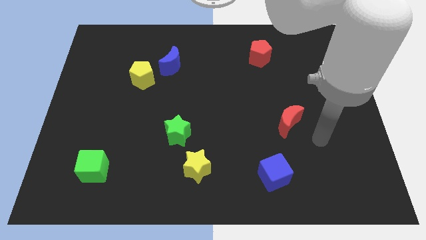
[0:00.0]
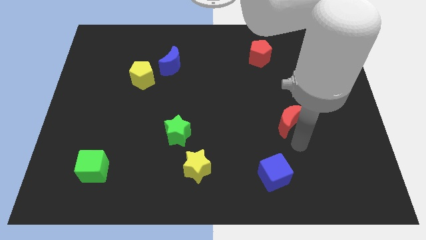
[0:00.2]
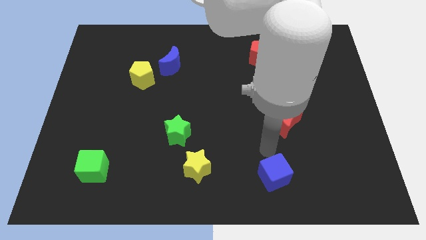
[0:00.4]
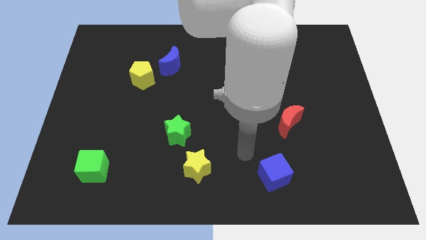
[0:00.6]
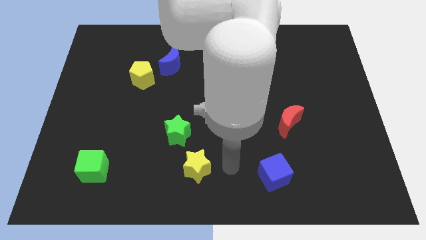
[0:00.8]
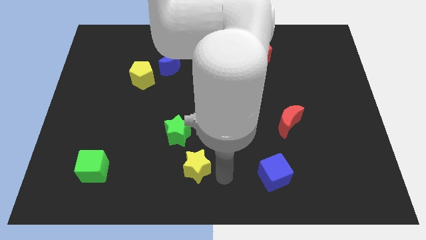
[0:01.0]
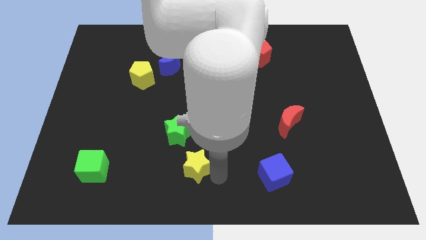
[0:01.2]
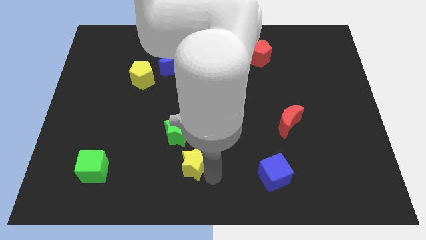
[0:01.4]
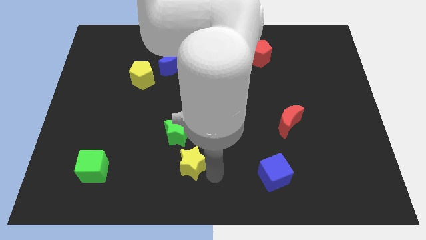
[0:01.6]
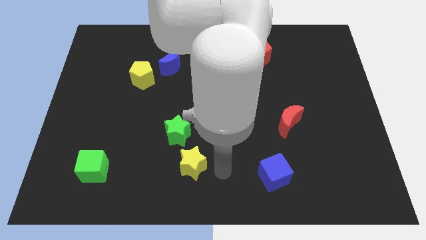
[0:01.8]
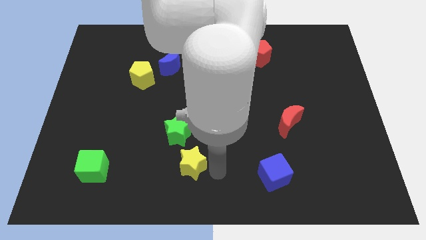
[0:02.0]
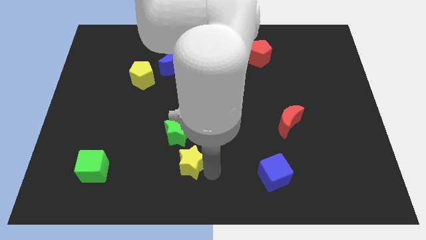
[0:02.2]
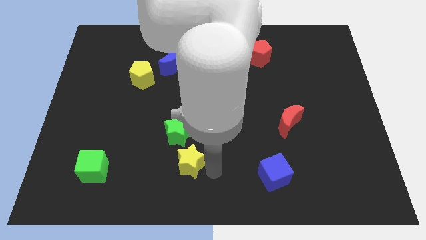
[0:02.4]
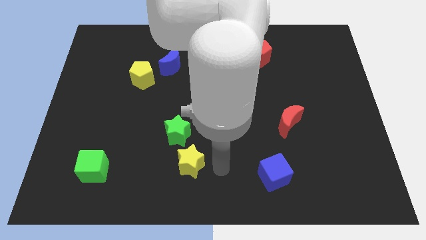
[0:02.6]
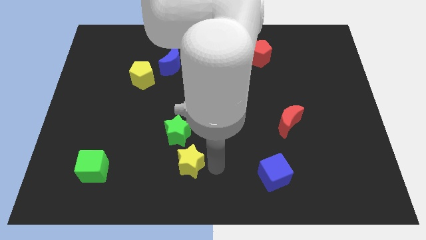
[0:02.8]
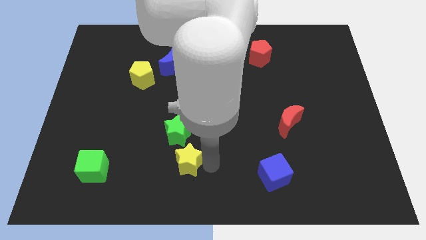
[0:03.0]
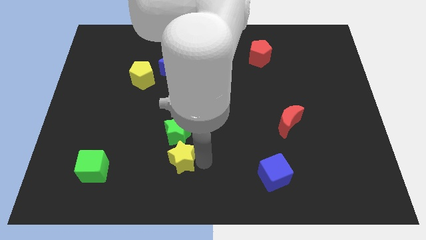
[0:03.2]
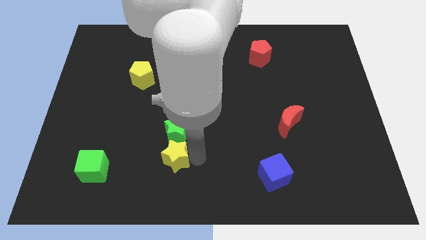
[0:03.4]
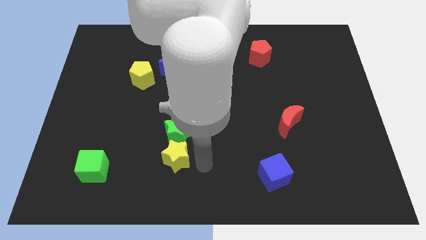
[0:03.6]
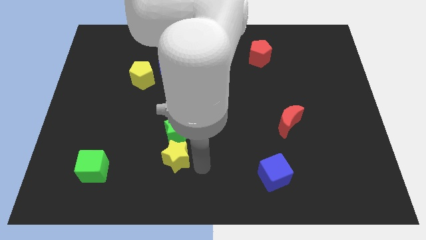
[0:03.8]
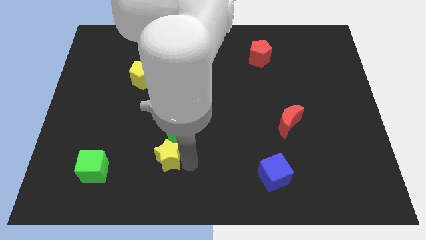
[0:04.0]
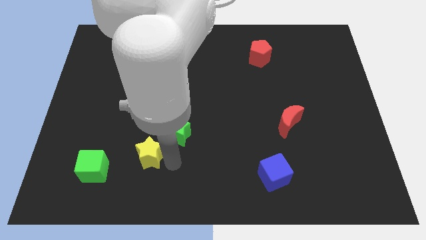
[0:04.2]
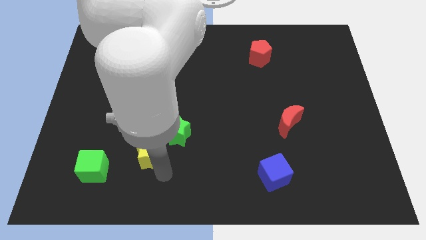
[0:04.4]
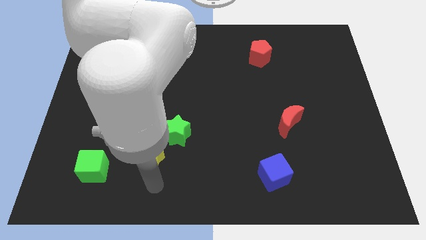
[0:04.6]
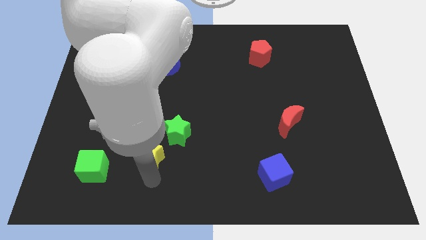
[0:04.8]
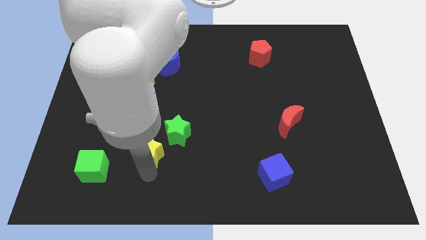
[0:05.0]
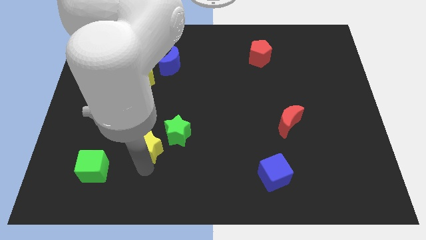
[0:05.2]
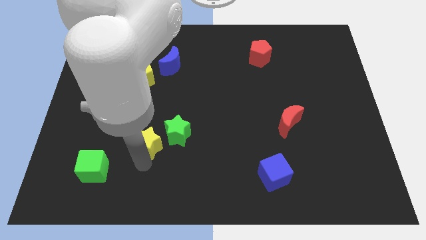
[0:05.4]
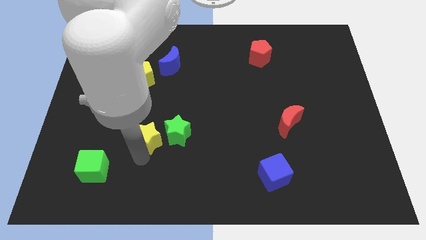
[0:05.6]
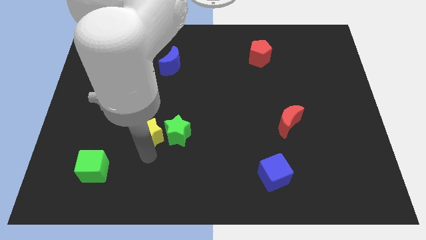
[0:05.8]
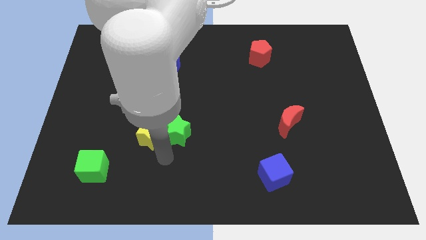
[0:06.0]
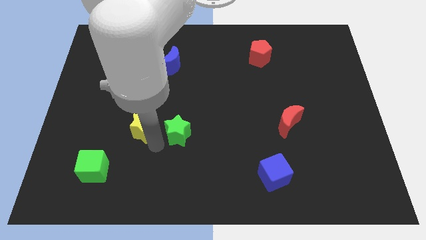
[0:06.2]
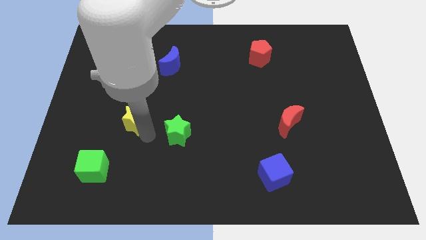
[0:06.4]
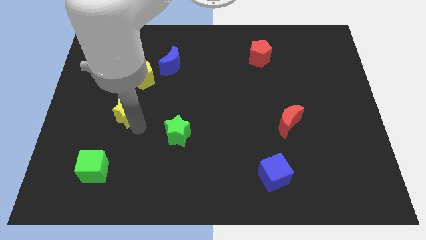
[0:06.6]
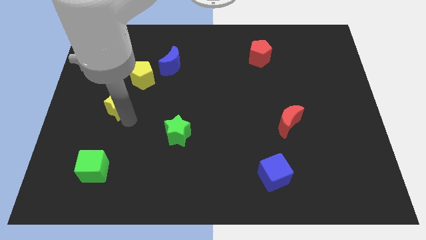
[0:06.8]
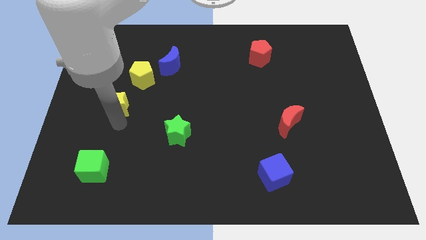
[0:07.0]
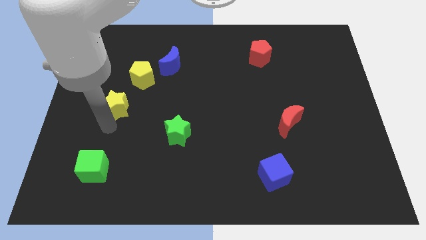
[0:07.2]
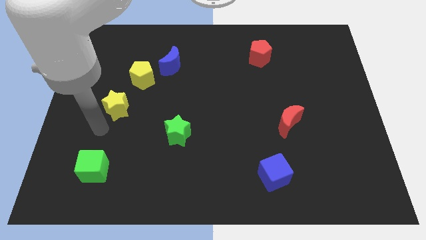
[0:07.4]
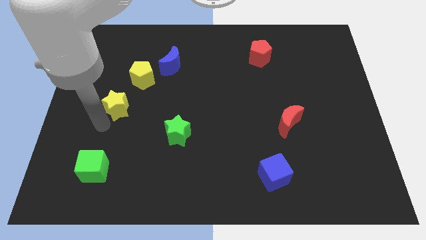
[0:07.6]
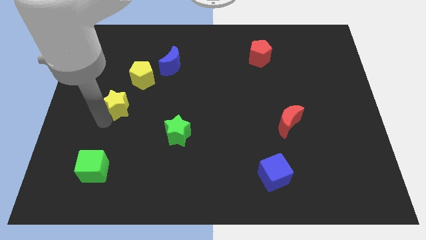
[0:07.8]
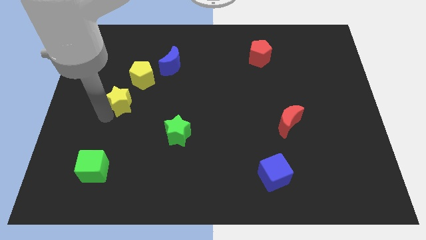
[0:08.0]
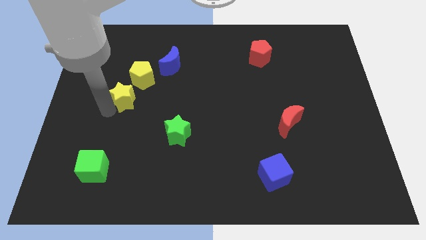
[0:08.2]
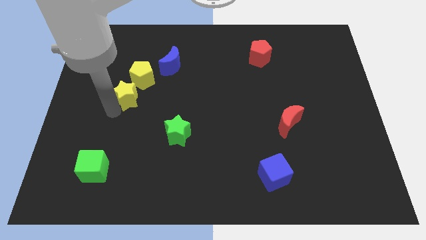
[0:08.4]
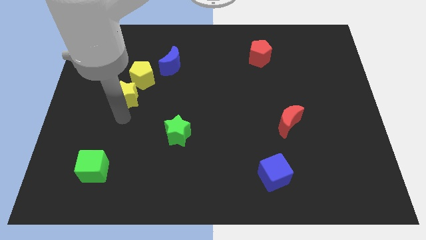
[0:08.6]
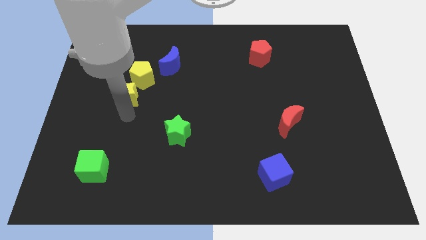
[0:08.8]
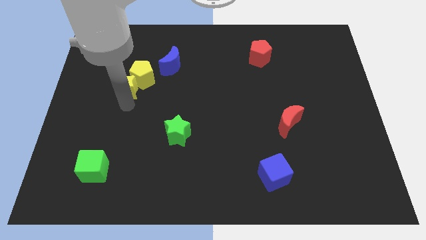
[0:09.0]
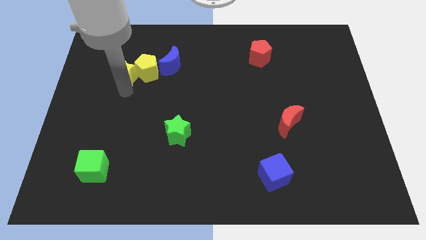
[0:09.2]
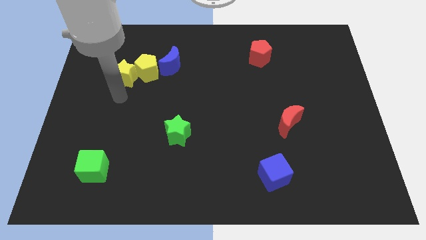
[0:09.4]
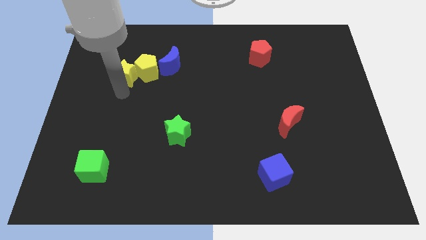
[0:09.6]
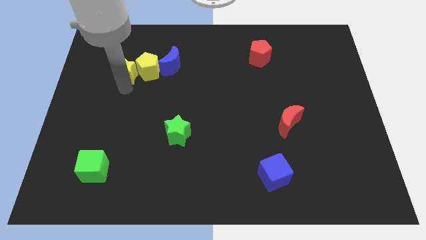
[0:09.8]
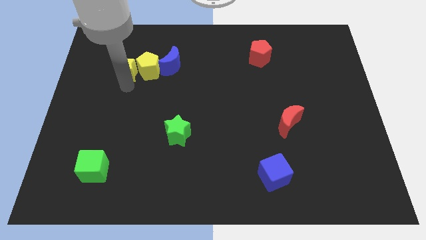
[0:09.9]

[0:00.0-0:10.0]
push the yellow star to the top left side of the yellow pentagon

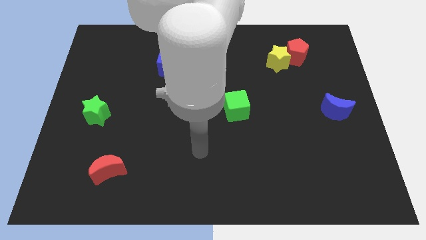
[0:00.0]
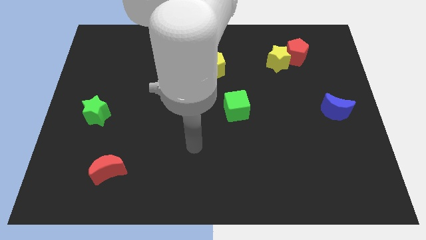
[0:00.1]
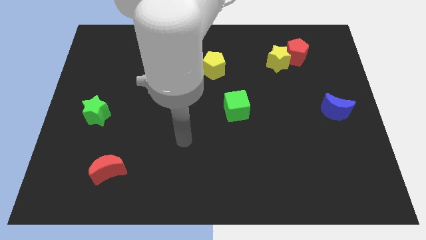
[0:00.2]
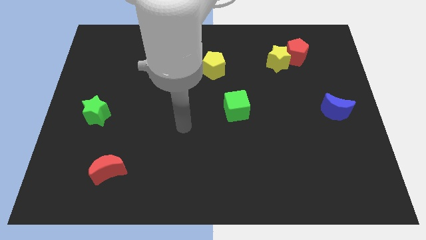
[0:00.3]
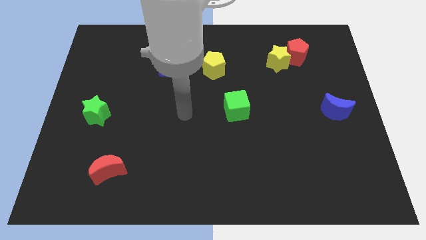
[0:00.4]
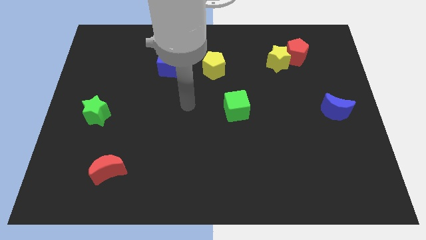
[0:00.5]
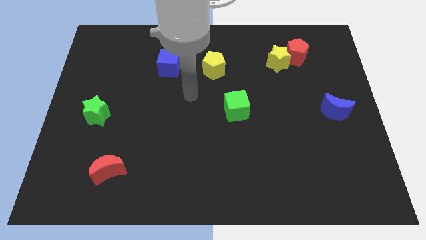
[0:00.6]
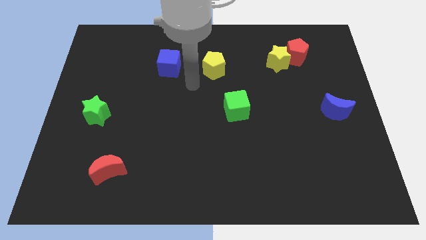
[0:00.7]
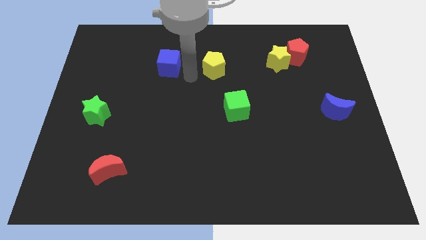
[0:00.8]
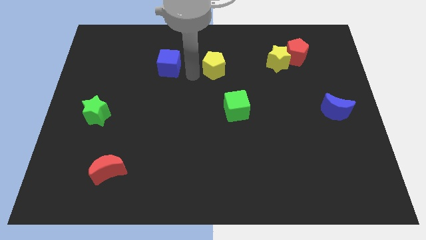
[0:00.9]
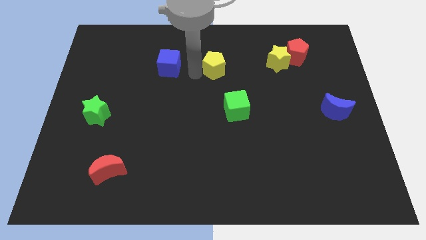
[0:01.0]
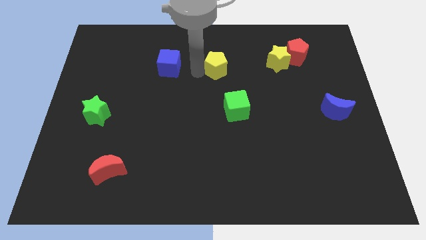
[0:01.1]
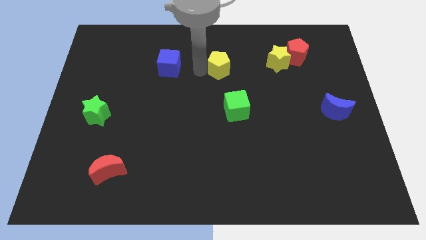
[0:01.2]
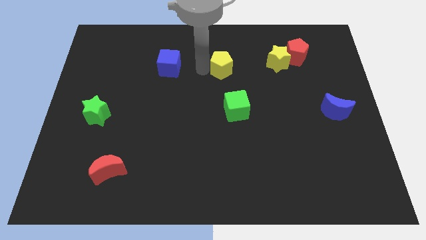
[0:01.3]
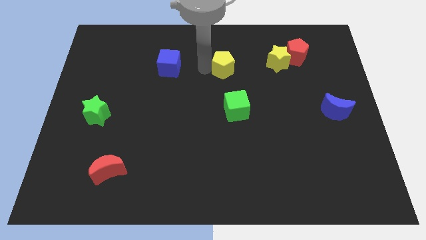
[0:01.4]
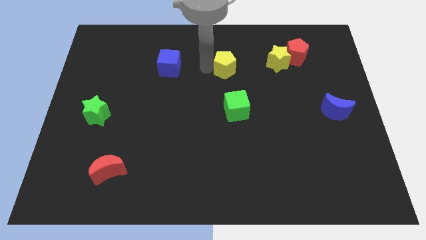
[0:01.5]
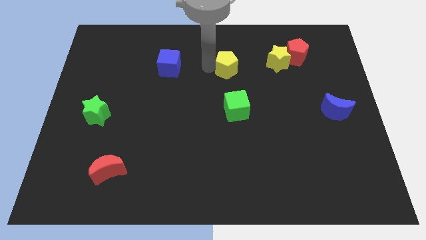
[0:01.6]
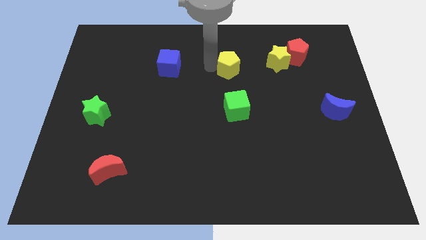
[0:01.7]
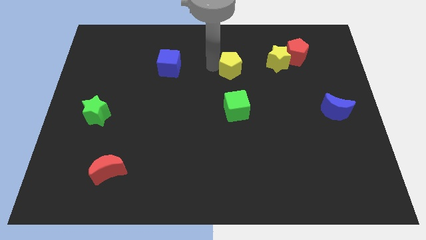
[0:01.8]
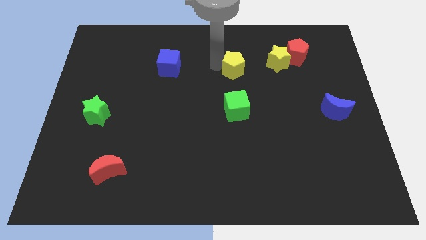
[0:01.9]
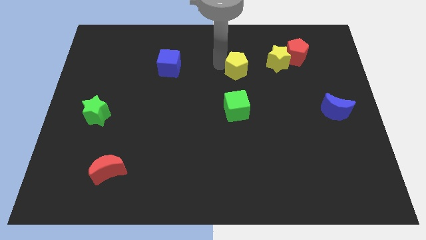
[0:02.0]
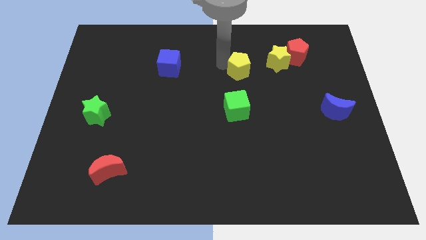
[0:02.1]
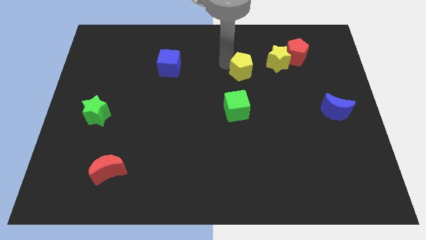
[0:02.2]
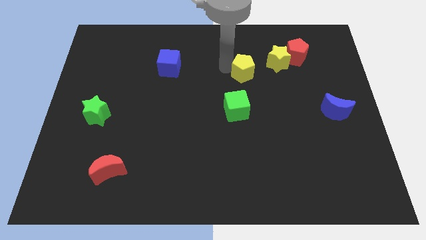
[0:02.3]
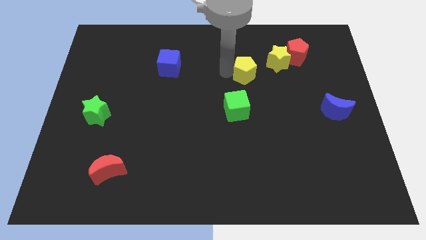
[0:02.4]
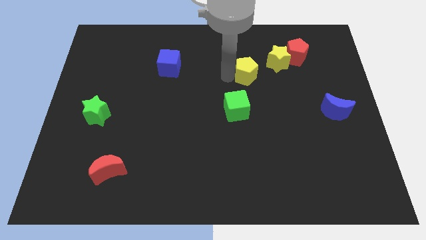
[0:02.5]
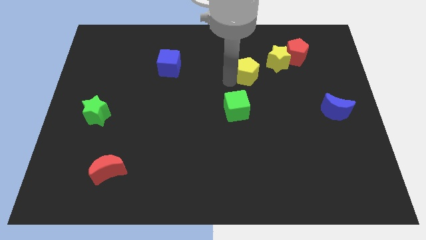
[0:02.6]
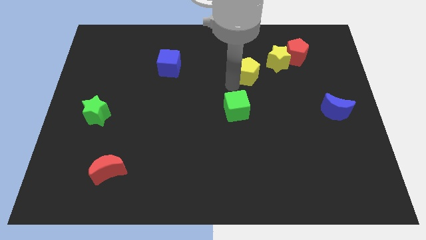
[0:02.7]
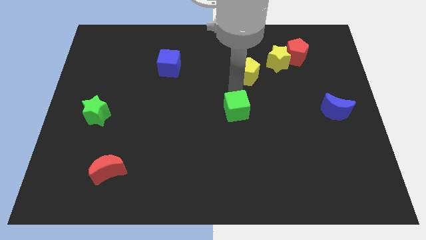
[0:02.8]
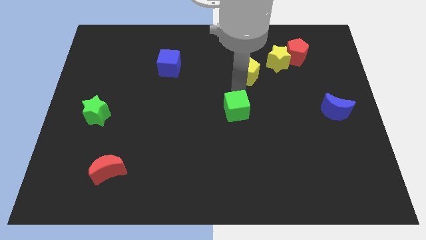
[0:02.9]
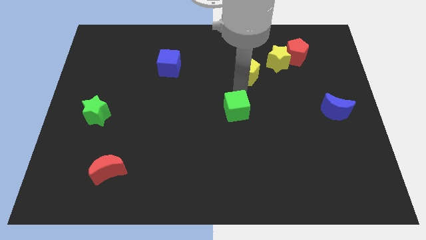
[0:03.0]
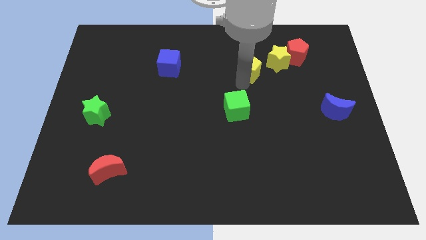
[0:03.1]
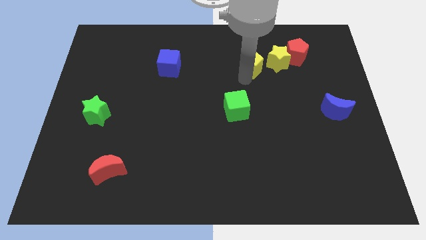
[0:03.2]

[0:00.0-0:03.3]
push the yellow pentagon left of the red pentagon
